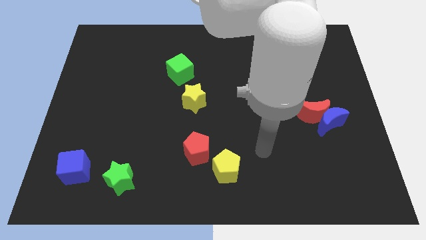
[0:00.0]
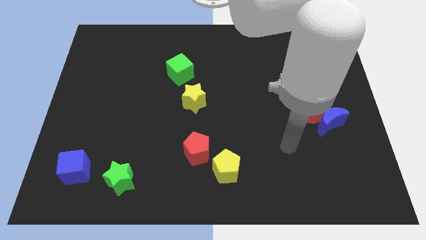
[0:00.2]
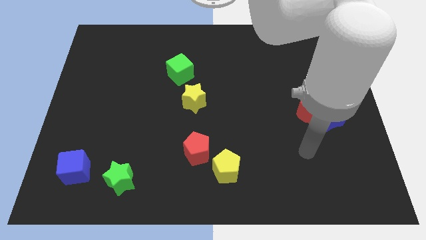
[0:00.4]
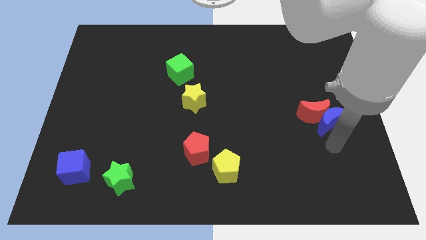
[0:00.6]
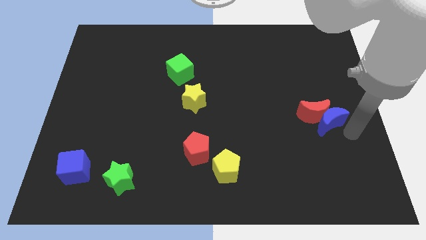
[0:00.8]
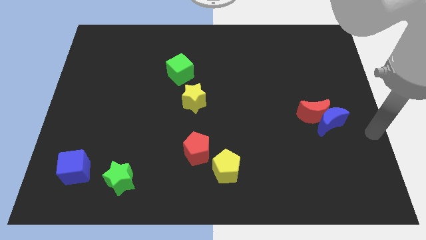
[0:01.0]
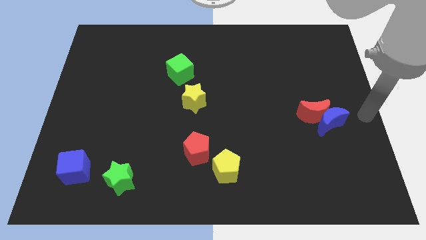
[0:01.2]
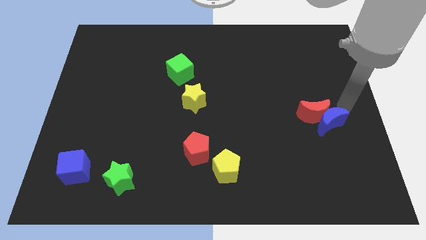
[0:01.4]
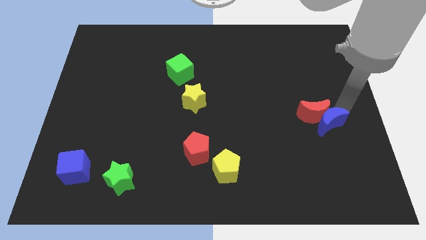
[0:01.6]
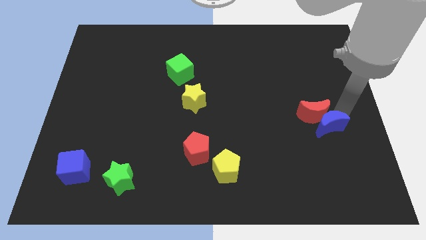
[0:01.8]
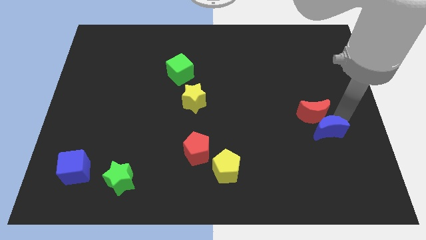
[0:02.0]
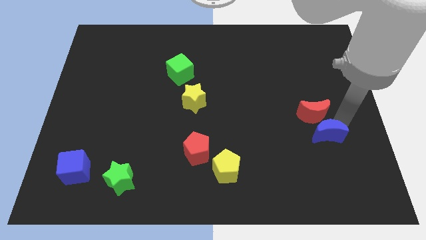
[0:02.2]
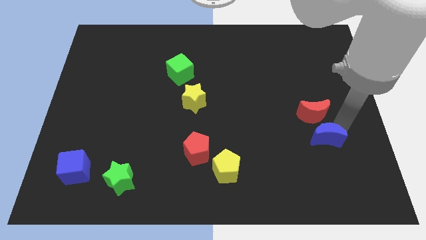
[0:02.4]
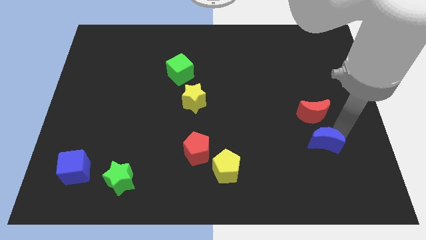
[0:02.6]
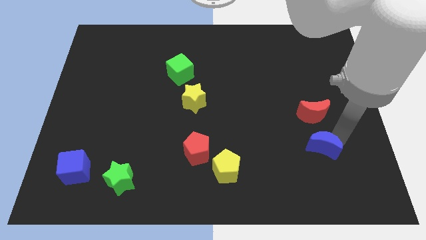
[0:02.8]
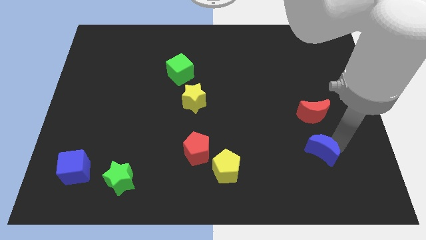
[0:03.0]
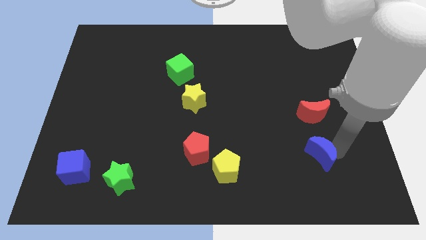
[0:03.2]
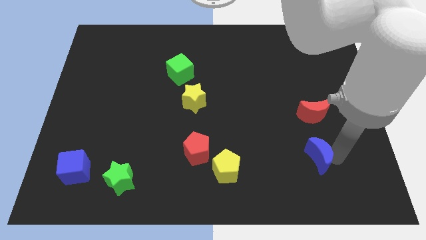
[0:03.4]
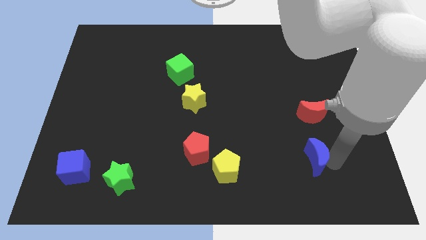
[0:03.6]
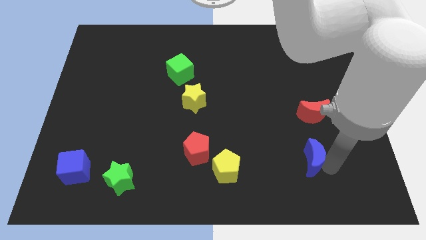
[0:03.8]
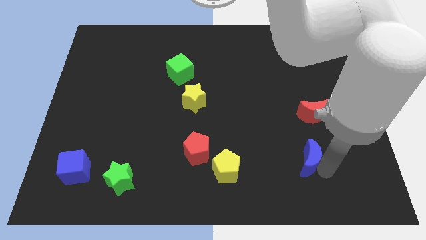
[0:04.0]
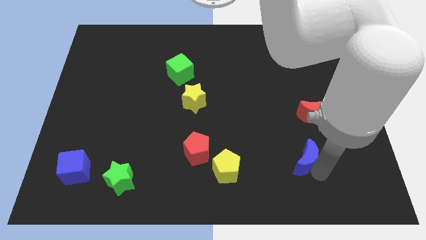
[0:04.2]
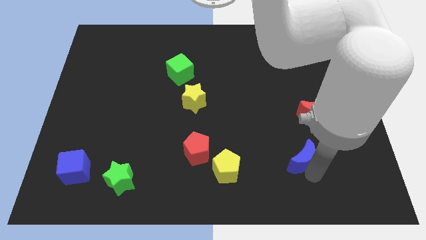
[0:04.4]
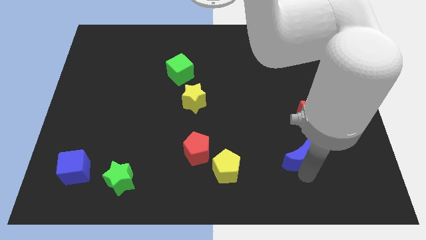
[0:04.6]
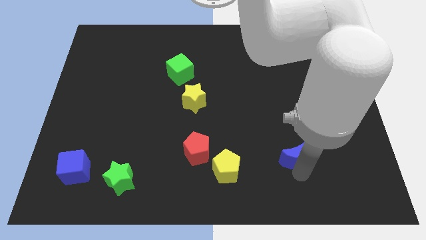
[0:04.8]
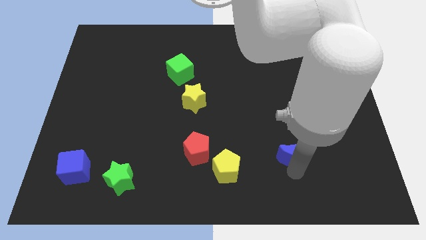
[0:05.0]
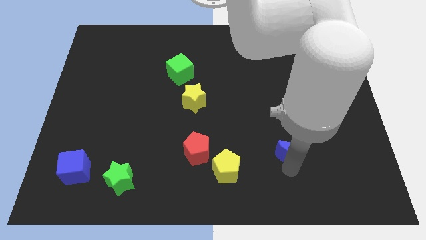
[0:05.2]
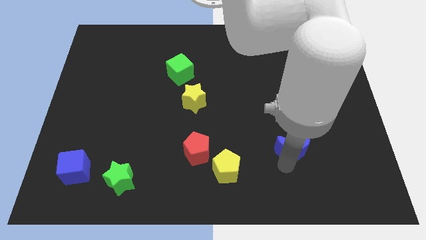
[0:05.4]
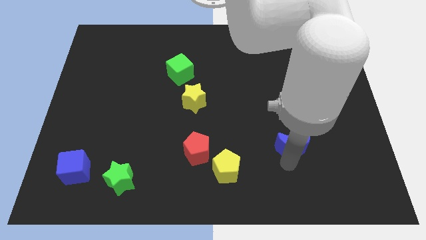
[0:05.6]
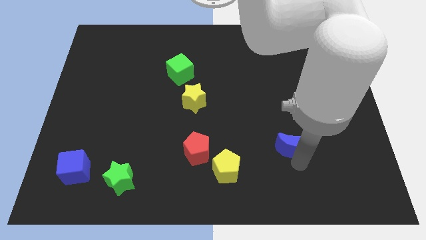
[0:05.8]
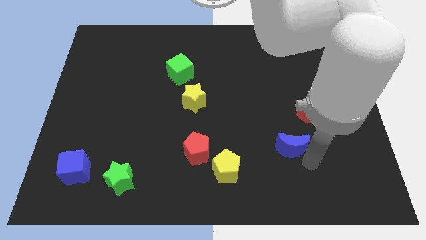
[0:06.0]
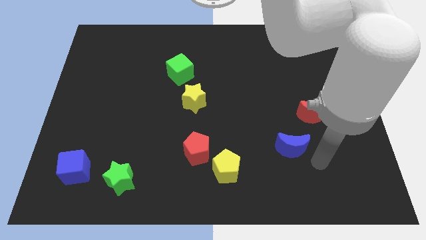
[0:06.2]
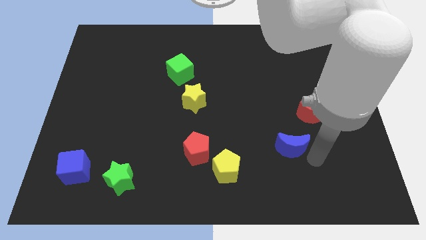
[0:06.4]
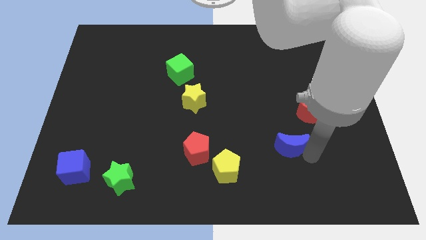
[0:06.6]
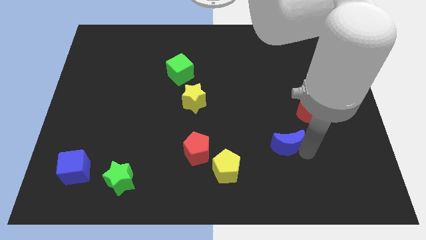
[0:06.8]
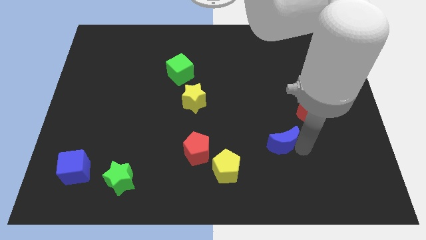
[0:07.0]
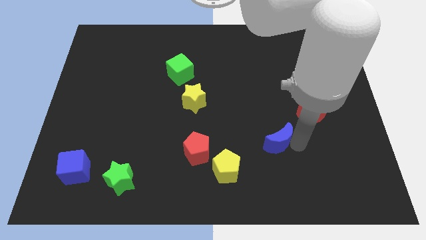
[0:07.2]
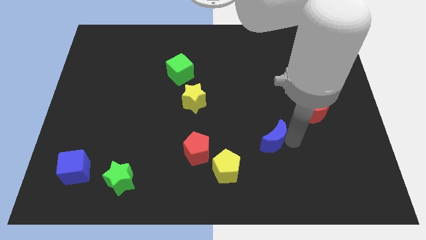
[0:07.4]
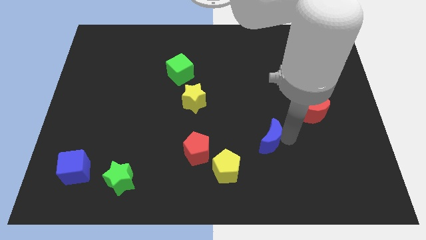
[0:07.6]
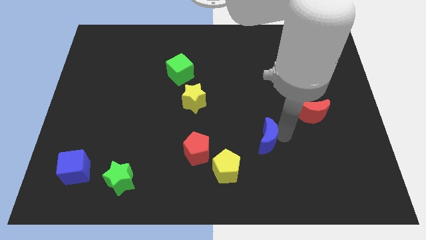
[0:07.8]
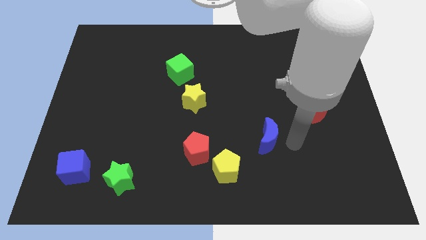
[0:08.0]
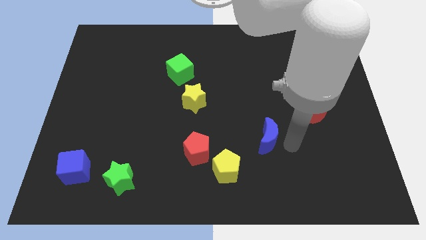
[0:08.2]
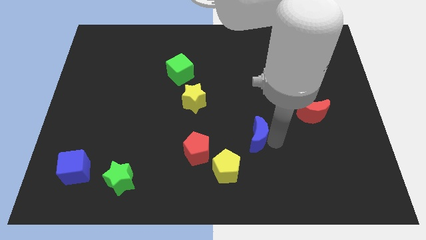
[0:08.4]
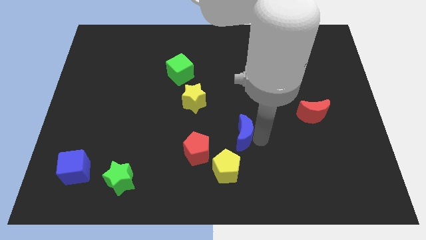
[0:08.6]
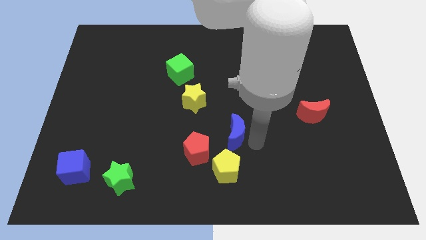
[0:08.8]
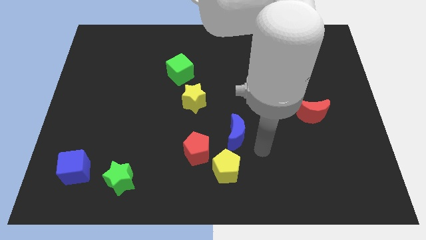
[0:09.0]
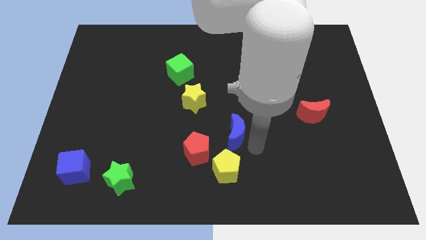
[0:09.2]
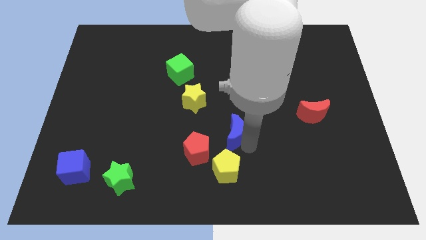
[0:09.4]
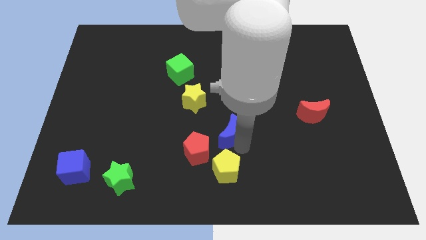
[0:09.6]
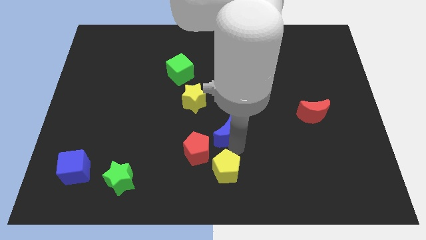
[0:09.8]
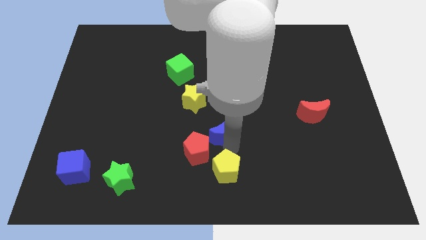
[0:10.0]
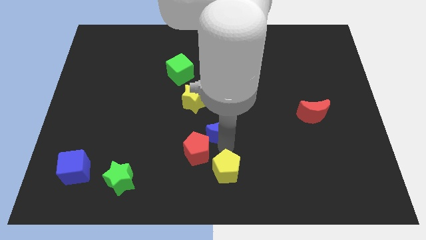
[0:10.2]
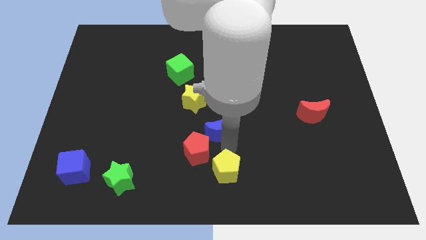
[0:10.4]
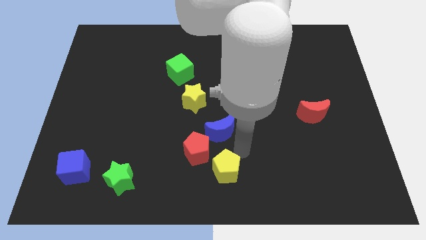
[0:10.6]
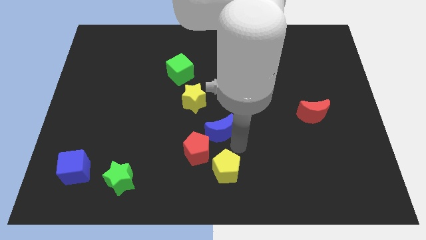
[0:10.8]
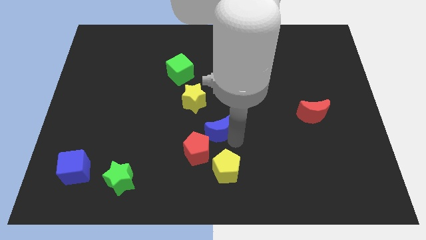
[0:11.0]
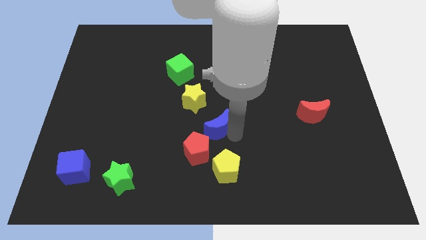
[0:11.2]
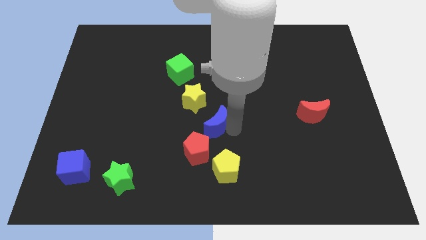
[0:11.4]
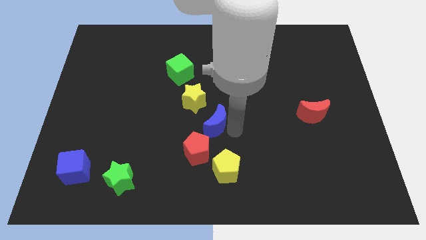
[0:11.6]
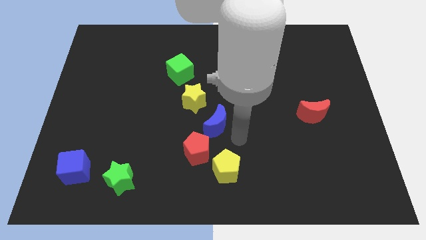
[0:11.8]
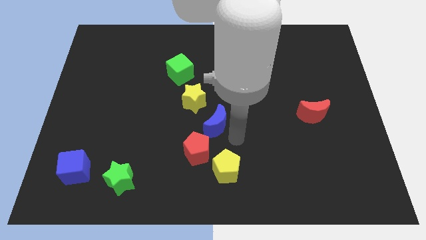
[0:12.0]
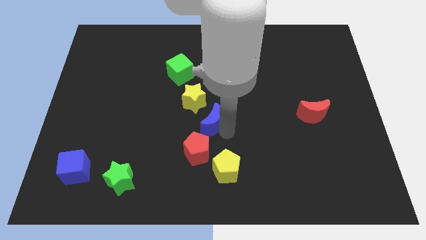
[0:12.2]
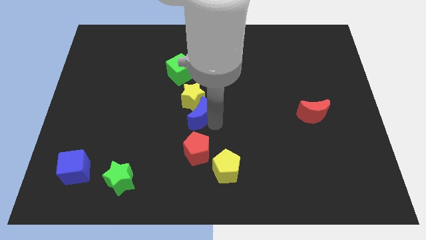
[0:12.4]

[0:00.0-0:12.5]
move the blue moon to the bottom left of the yellow star

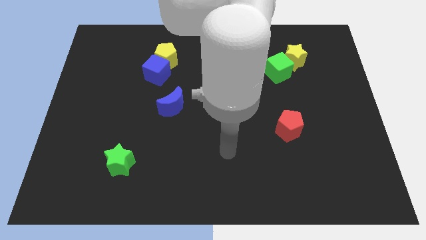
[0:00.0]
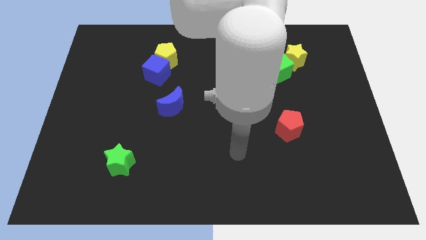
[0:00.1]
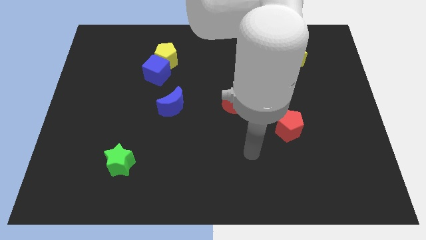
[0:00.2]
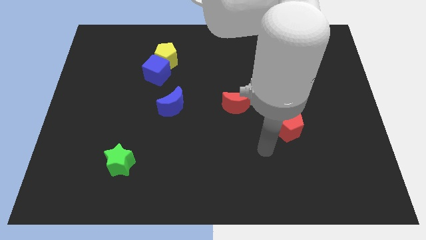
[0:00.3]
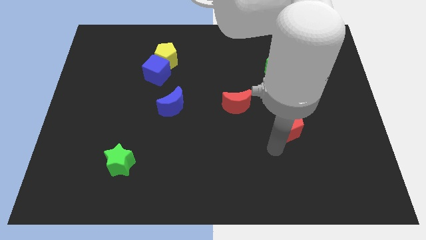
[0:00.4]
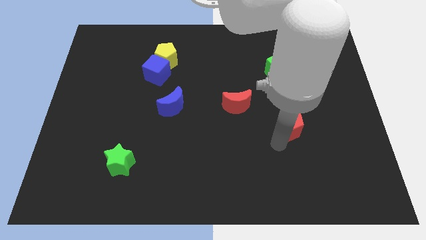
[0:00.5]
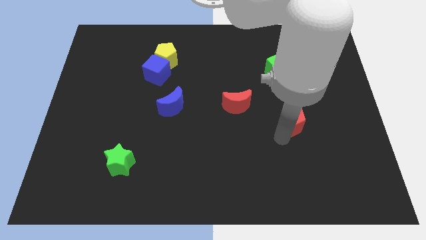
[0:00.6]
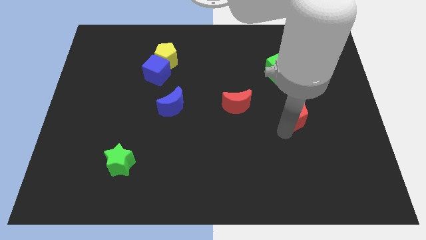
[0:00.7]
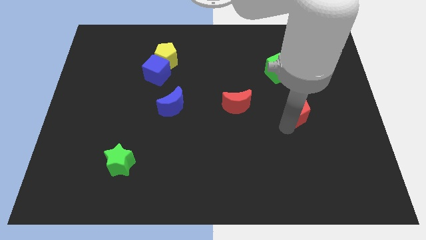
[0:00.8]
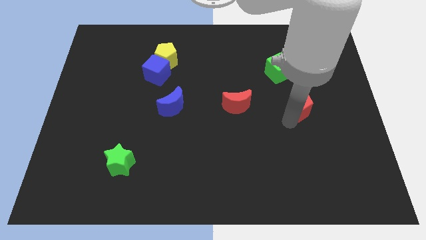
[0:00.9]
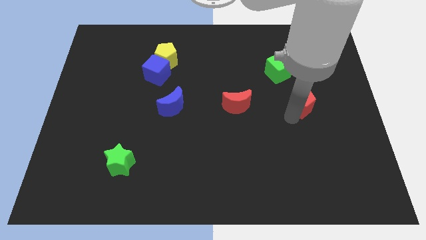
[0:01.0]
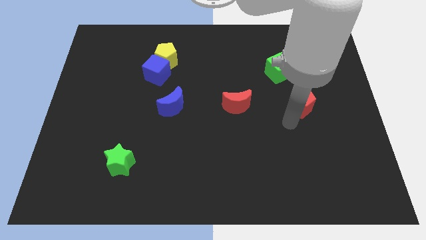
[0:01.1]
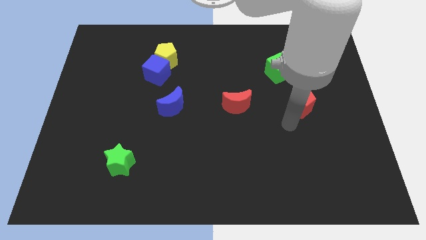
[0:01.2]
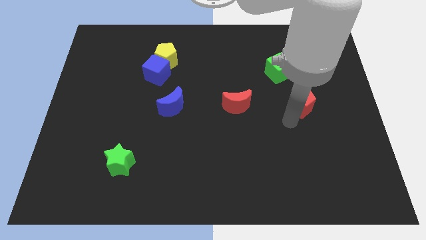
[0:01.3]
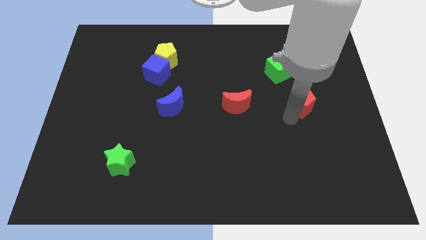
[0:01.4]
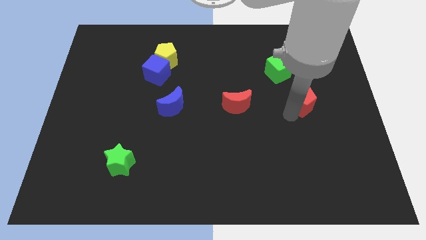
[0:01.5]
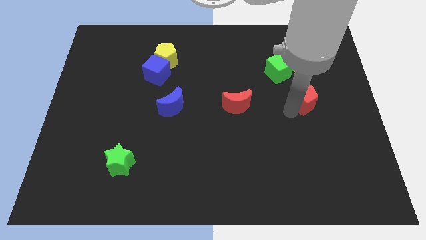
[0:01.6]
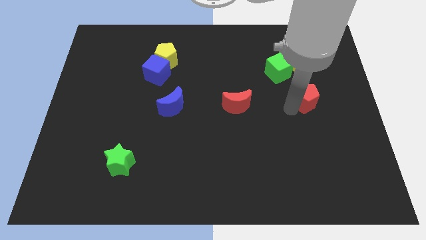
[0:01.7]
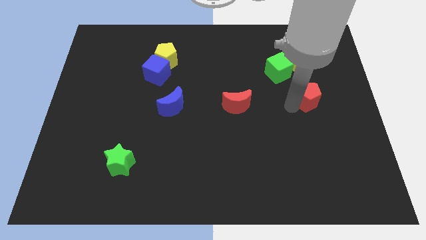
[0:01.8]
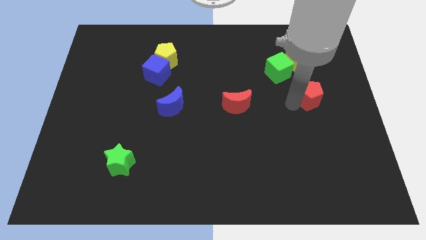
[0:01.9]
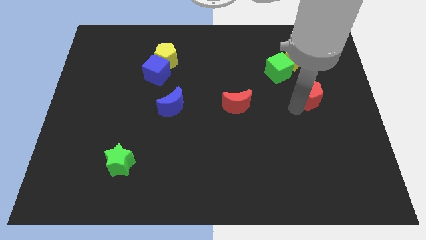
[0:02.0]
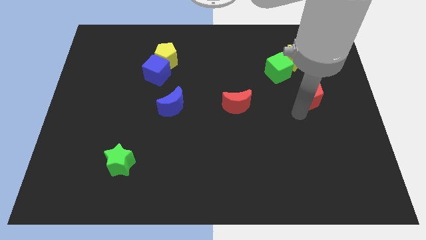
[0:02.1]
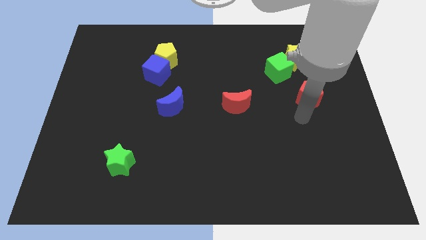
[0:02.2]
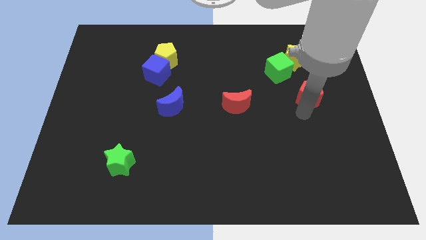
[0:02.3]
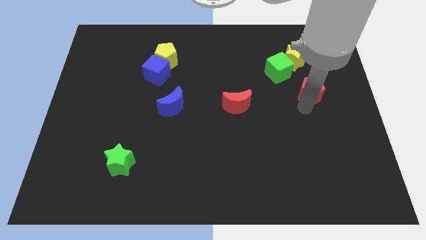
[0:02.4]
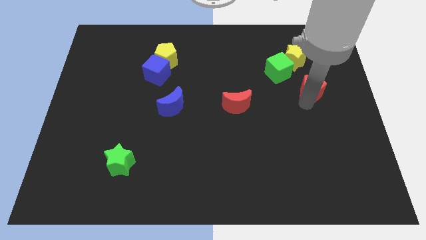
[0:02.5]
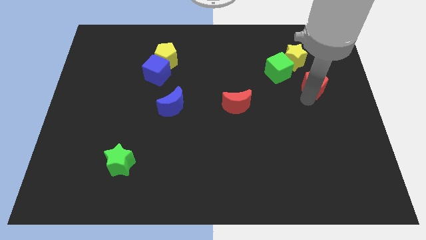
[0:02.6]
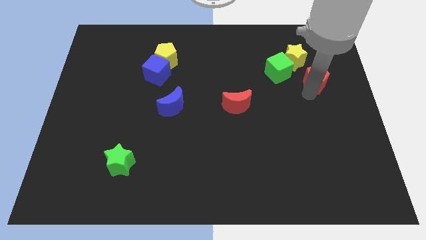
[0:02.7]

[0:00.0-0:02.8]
slide the red pentagon just right of the green cube
